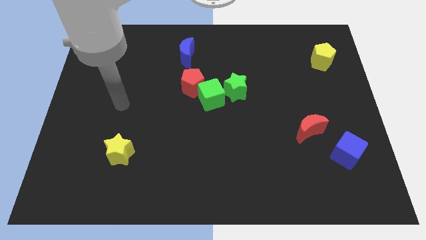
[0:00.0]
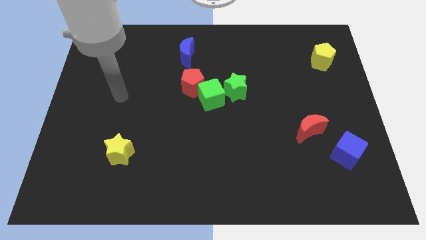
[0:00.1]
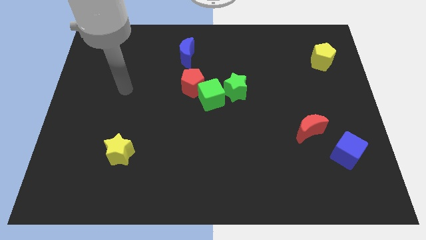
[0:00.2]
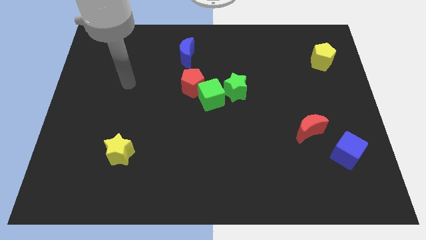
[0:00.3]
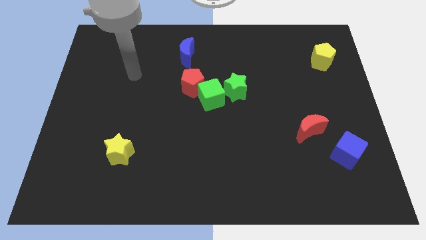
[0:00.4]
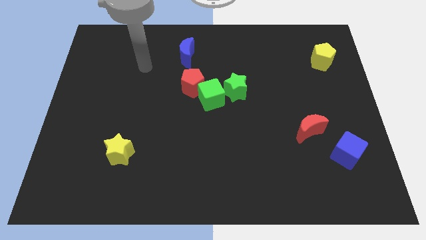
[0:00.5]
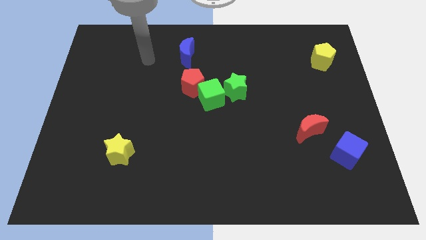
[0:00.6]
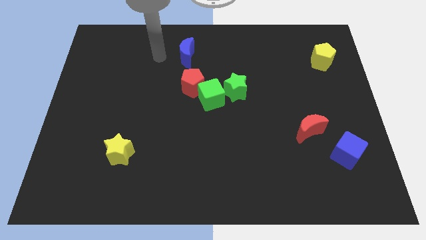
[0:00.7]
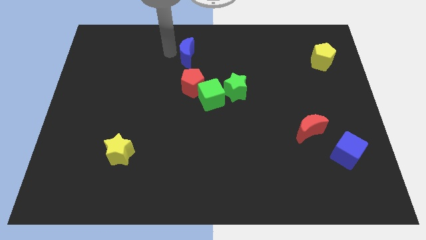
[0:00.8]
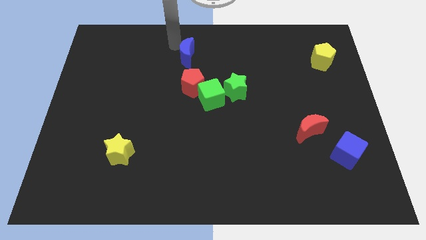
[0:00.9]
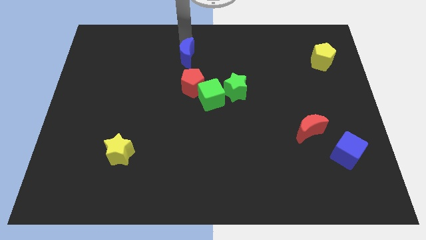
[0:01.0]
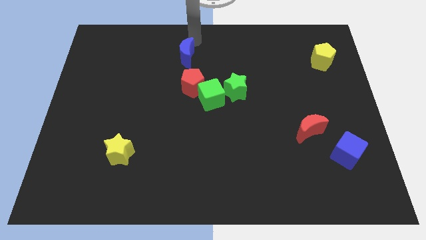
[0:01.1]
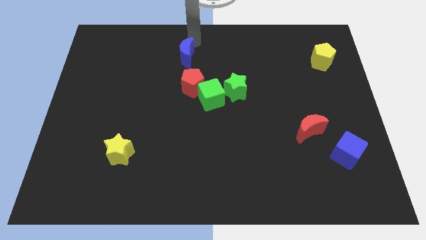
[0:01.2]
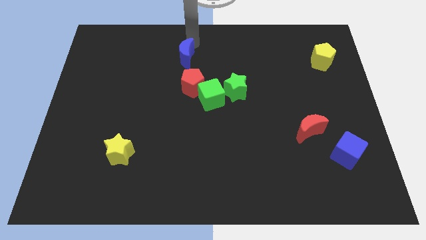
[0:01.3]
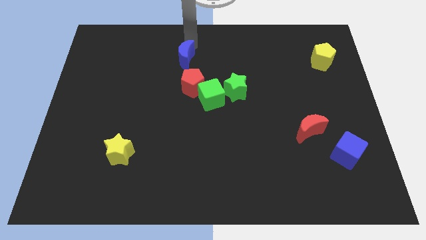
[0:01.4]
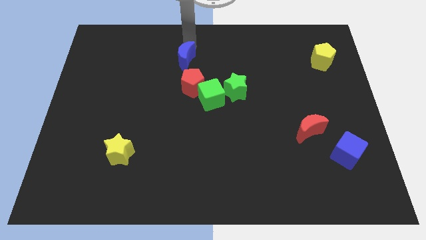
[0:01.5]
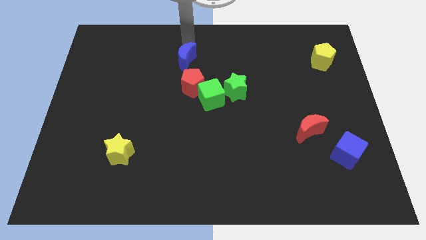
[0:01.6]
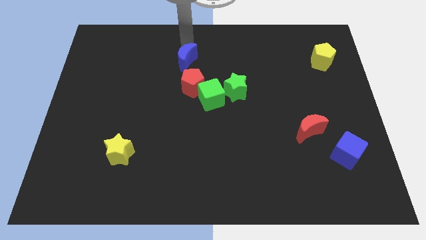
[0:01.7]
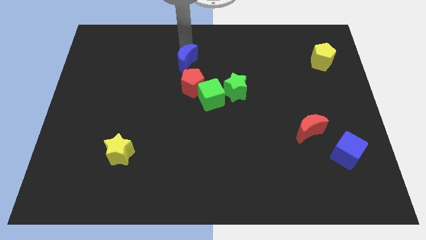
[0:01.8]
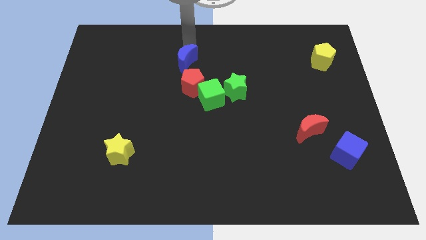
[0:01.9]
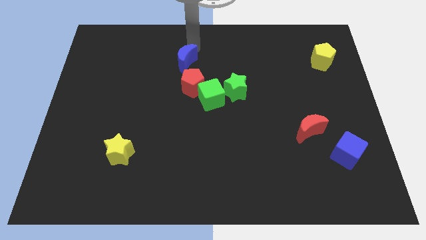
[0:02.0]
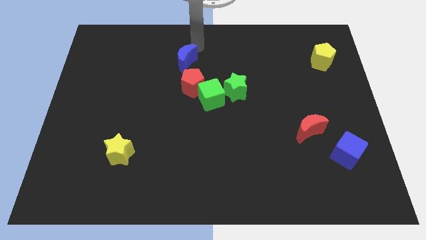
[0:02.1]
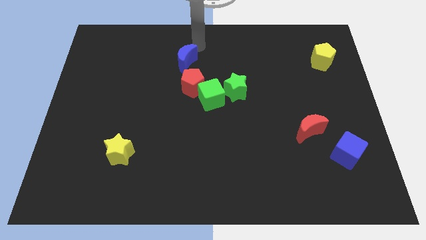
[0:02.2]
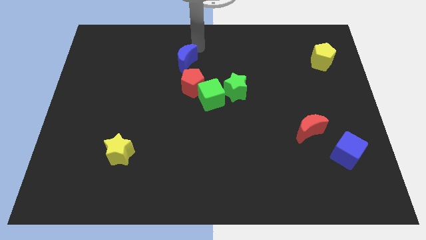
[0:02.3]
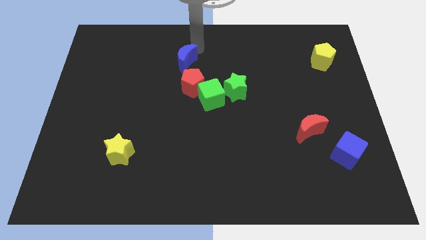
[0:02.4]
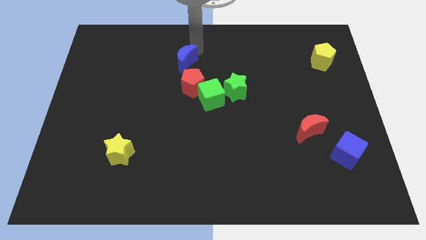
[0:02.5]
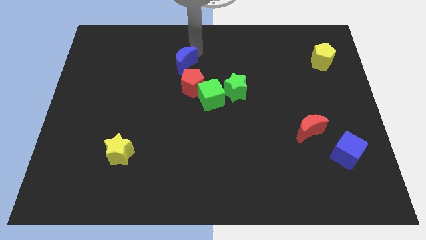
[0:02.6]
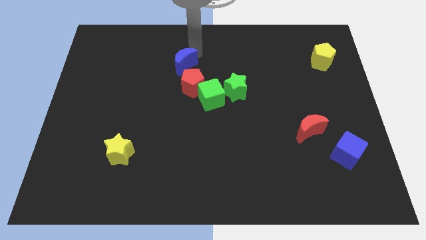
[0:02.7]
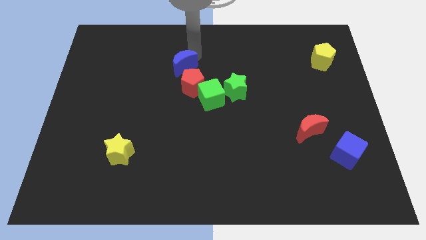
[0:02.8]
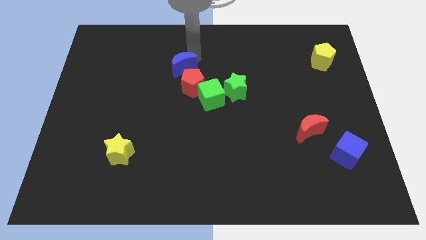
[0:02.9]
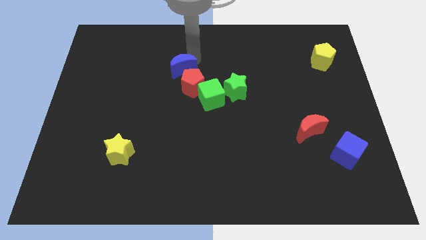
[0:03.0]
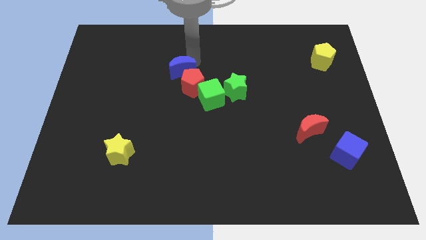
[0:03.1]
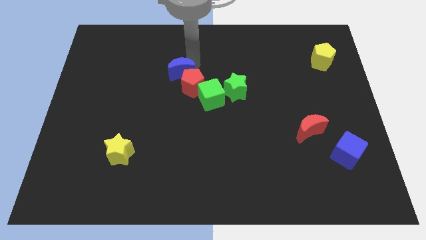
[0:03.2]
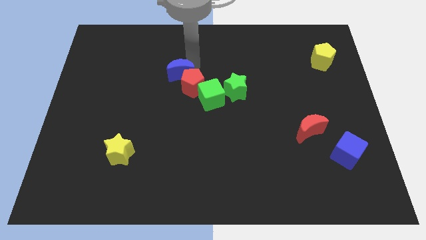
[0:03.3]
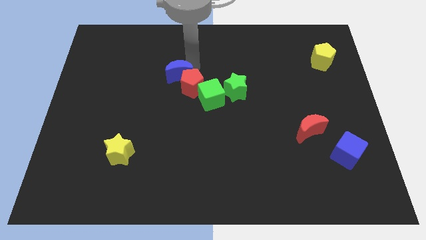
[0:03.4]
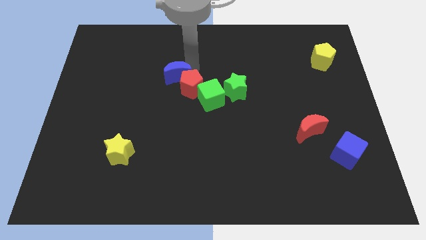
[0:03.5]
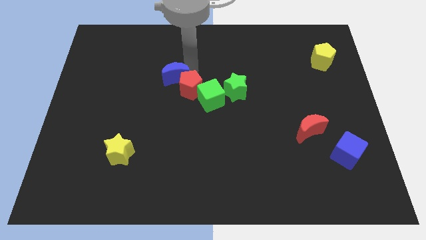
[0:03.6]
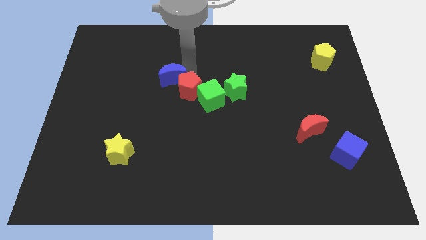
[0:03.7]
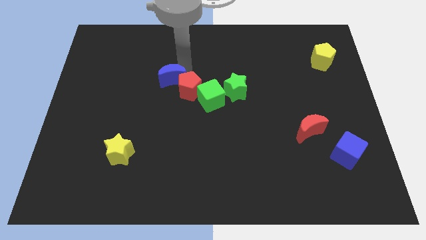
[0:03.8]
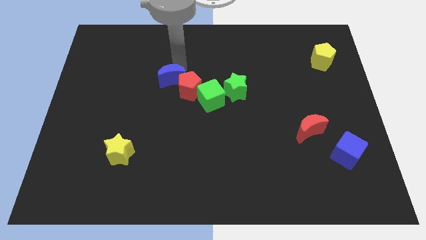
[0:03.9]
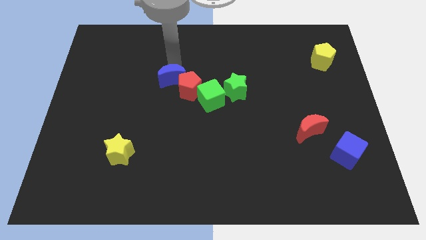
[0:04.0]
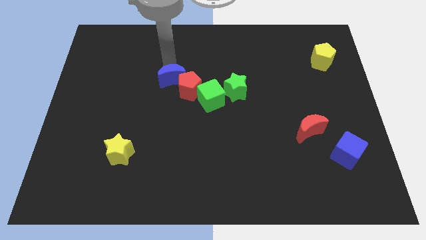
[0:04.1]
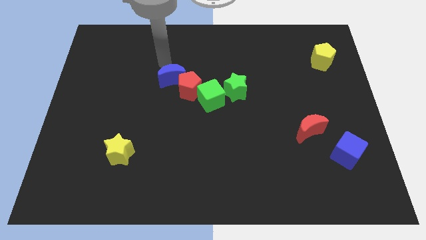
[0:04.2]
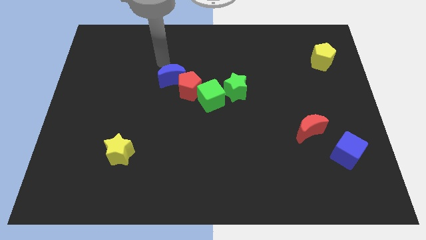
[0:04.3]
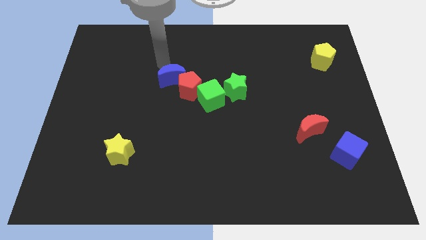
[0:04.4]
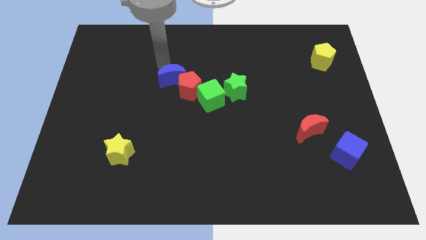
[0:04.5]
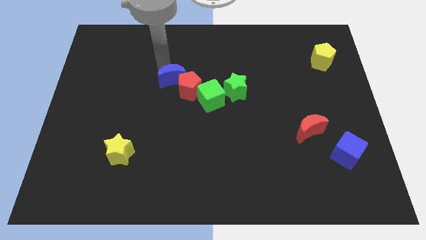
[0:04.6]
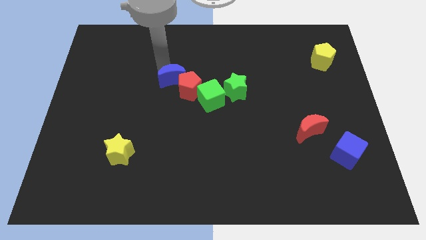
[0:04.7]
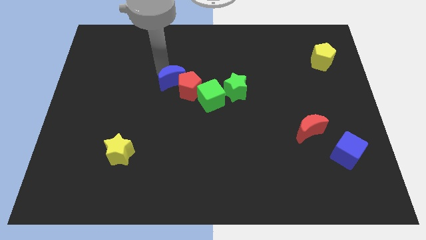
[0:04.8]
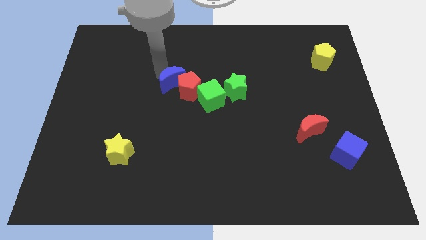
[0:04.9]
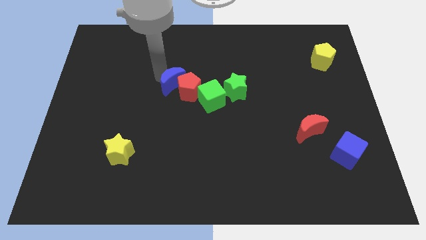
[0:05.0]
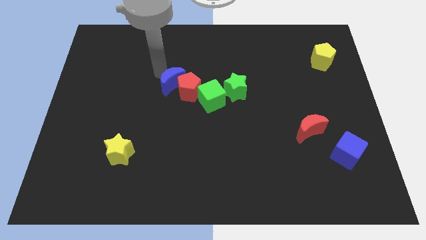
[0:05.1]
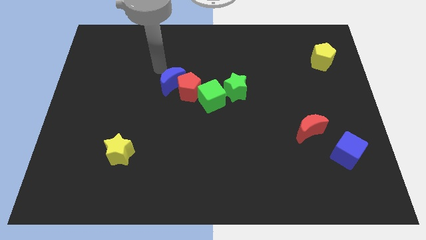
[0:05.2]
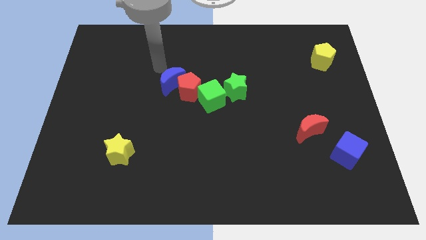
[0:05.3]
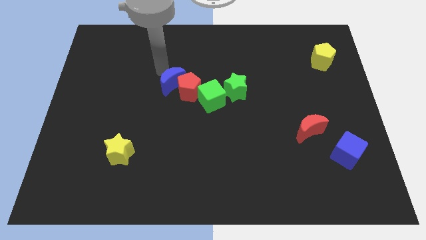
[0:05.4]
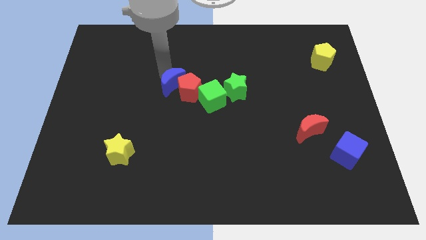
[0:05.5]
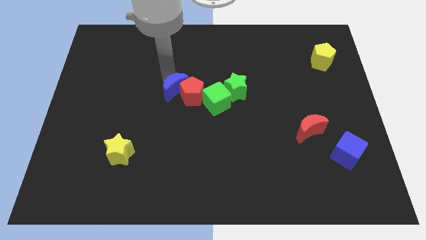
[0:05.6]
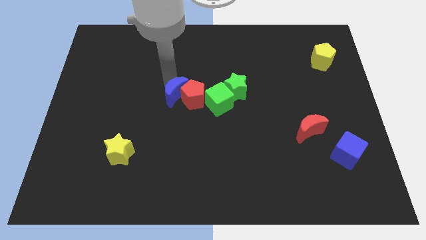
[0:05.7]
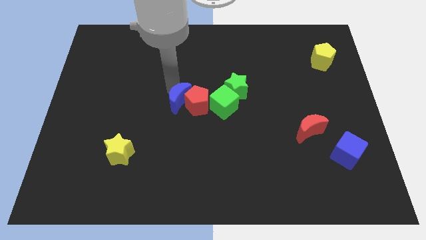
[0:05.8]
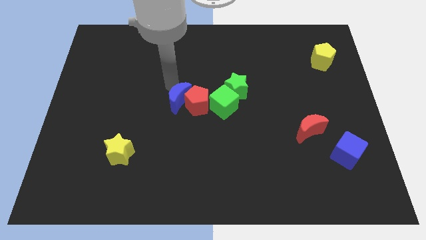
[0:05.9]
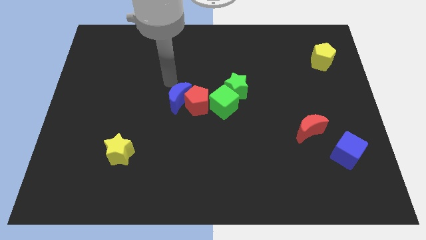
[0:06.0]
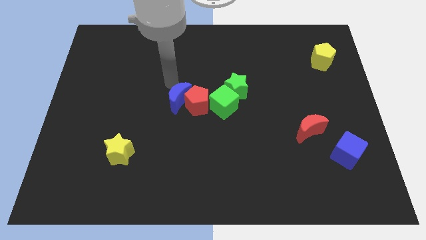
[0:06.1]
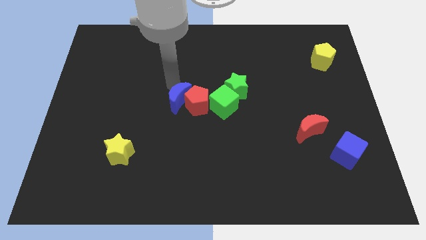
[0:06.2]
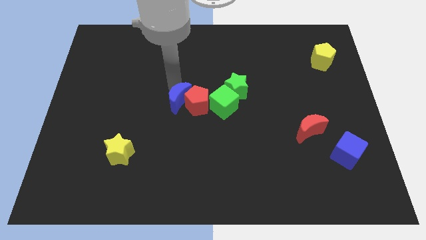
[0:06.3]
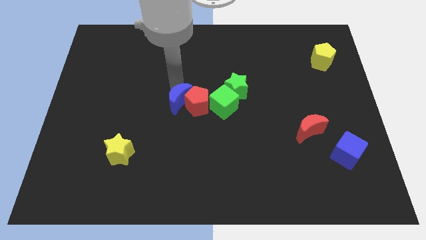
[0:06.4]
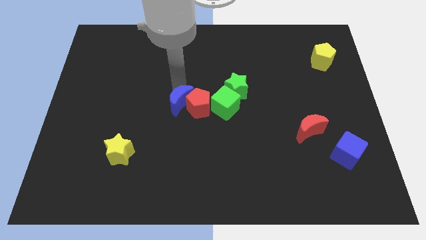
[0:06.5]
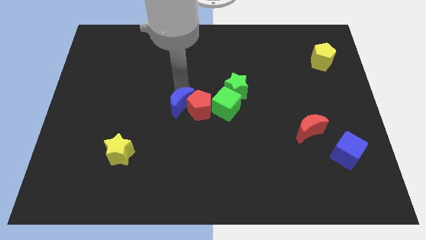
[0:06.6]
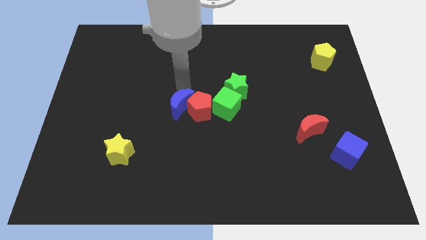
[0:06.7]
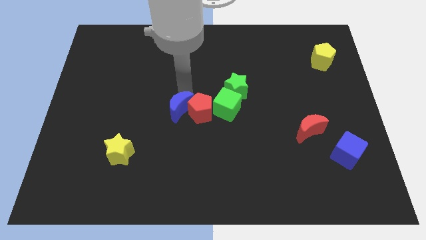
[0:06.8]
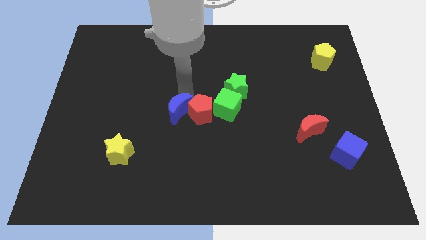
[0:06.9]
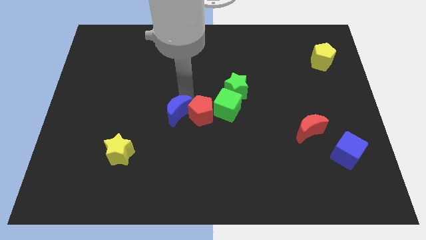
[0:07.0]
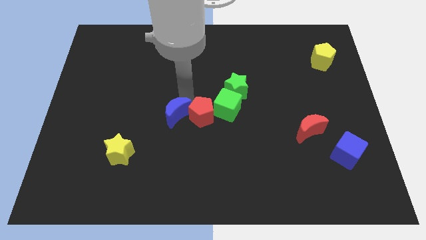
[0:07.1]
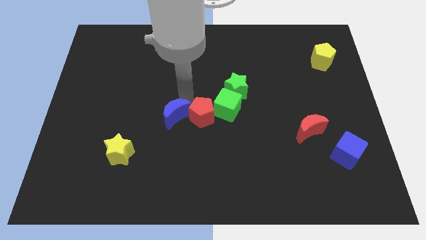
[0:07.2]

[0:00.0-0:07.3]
move the blue moon downwards

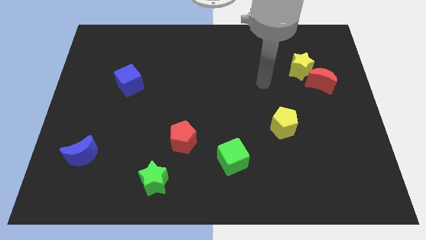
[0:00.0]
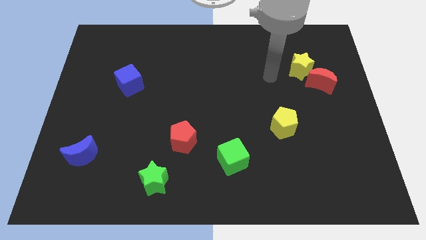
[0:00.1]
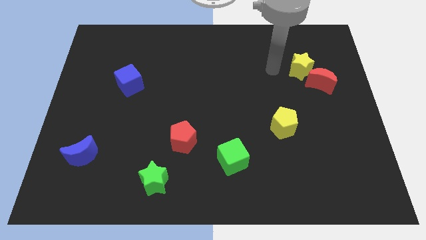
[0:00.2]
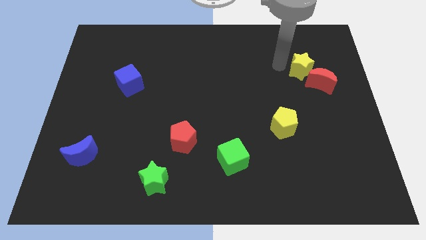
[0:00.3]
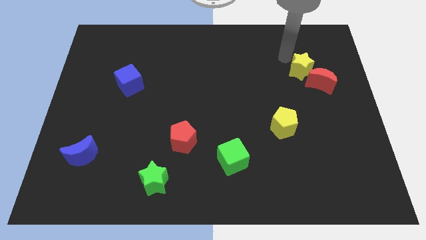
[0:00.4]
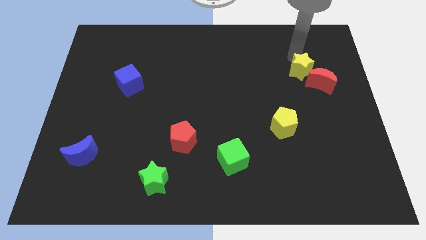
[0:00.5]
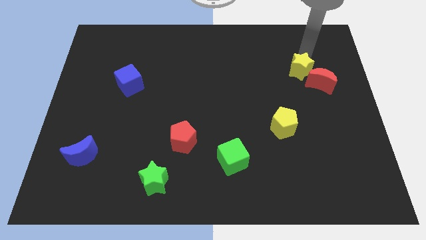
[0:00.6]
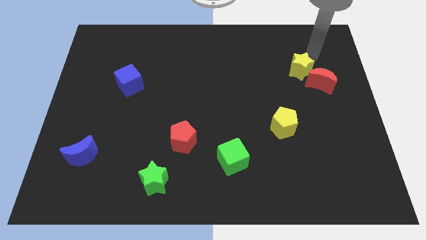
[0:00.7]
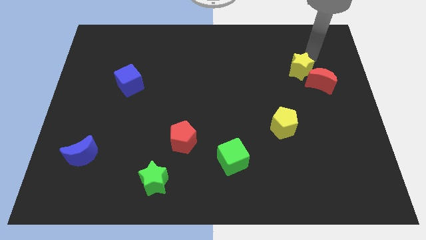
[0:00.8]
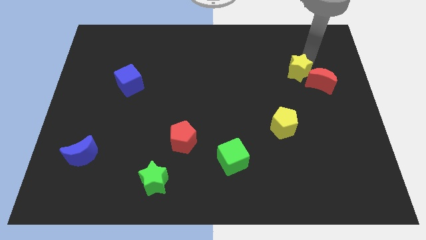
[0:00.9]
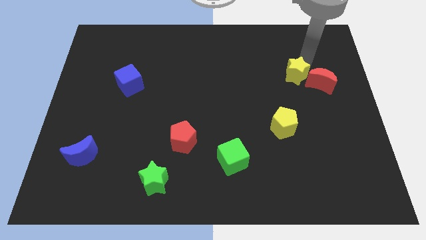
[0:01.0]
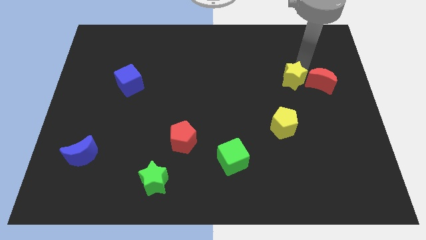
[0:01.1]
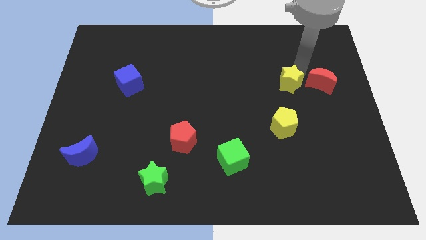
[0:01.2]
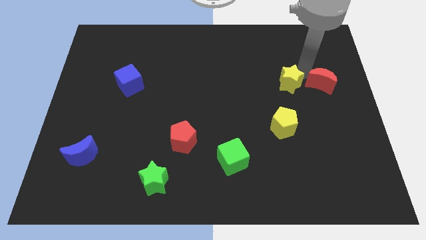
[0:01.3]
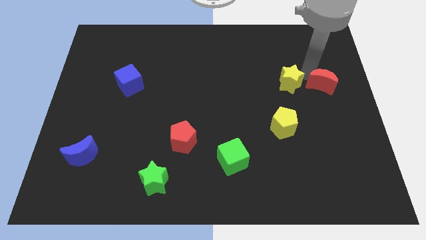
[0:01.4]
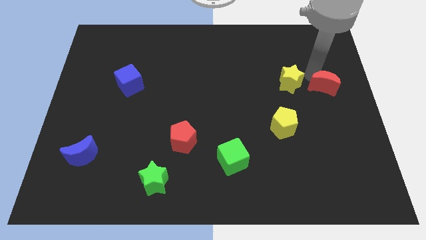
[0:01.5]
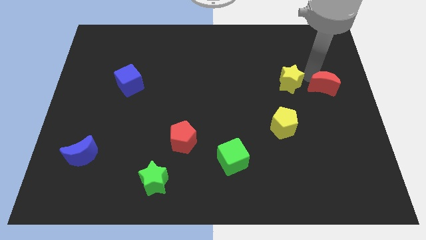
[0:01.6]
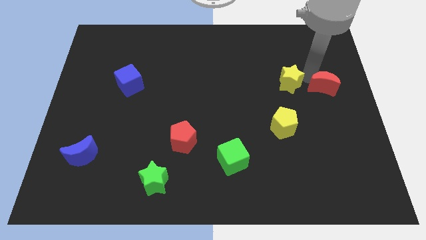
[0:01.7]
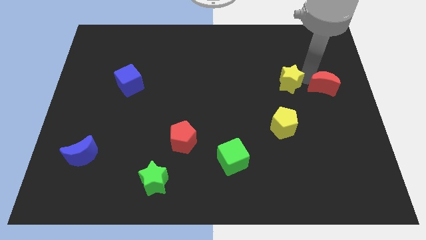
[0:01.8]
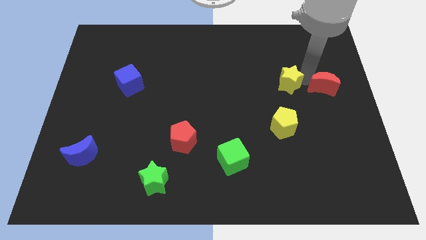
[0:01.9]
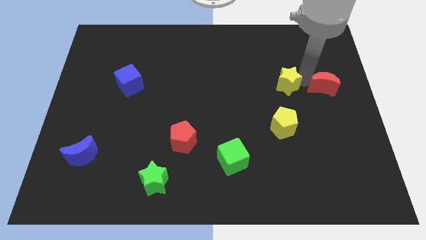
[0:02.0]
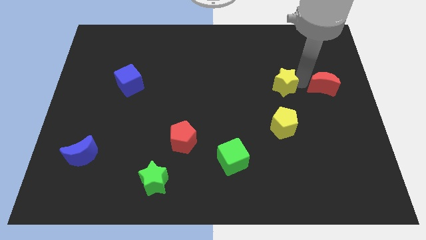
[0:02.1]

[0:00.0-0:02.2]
push the yellow star a little diagonally downwards and left
